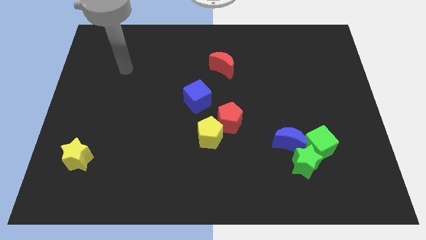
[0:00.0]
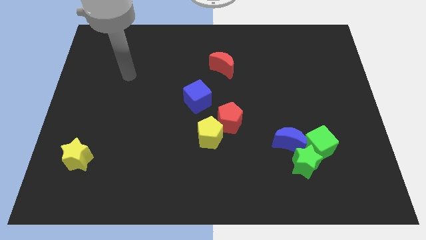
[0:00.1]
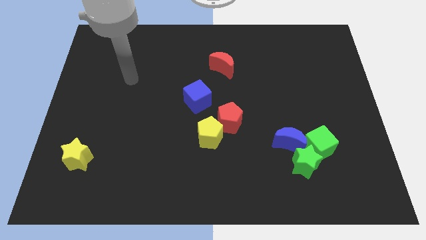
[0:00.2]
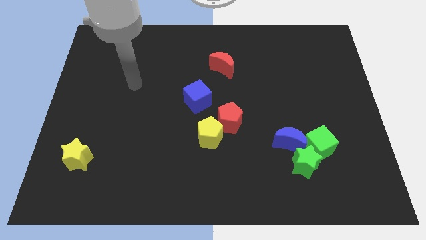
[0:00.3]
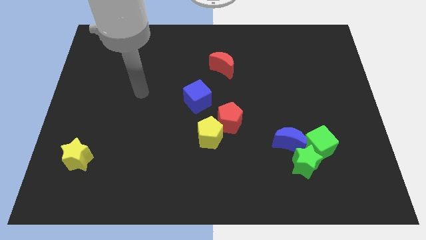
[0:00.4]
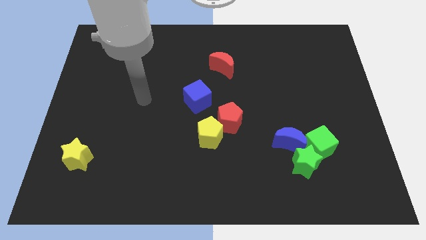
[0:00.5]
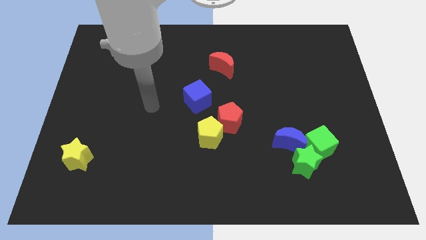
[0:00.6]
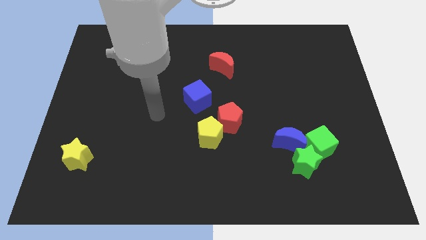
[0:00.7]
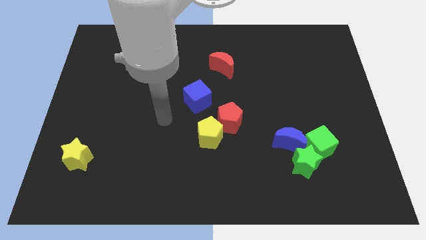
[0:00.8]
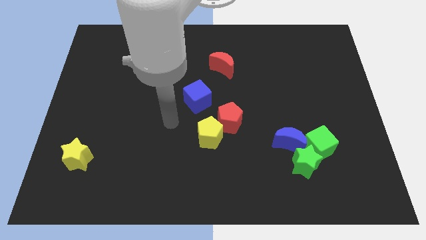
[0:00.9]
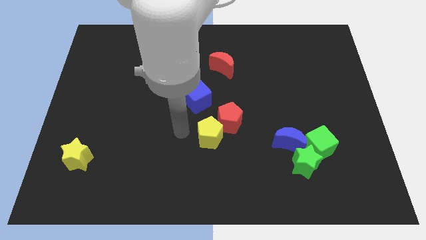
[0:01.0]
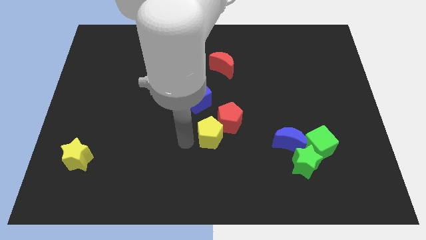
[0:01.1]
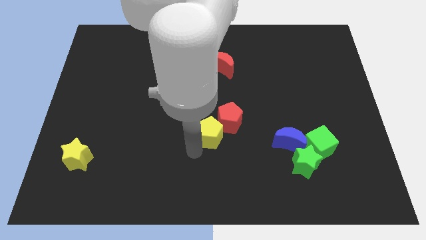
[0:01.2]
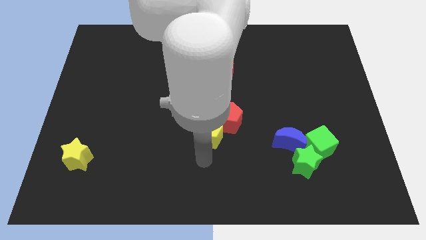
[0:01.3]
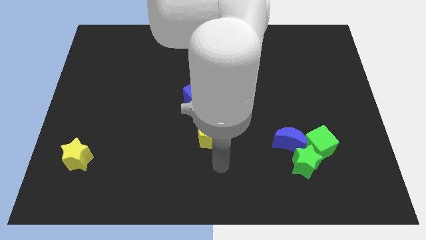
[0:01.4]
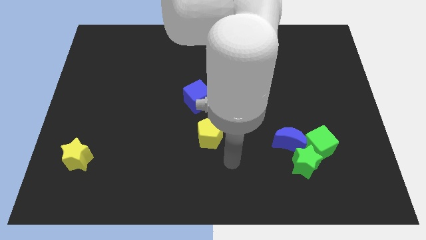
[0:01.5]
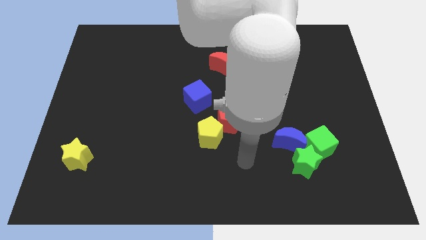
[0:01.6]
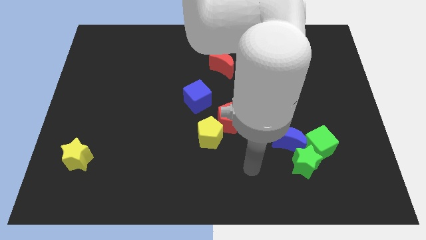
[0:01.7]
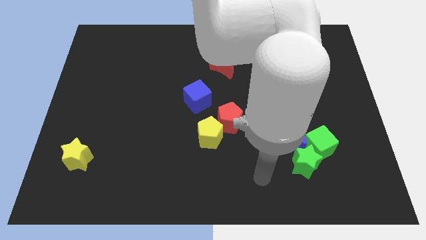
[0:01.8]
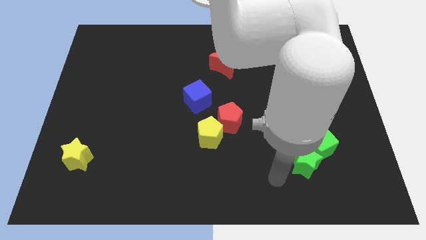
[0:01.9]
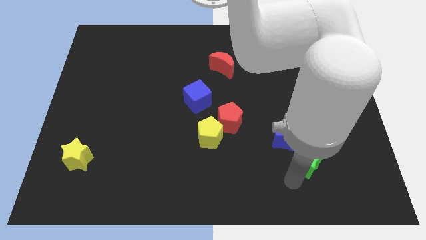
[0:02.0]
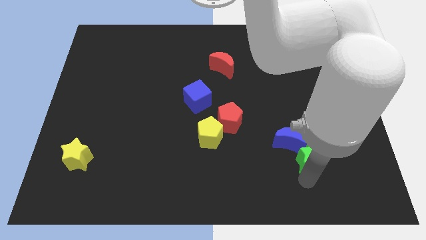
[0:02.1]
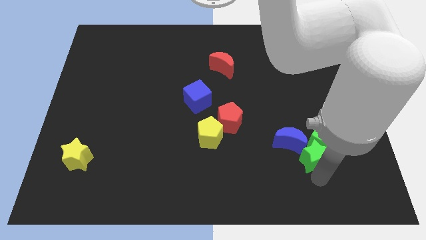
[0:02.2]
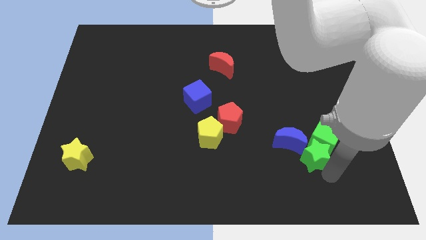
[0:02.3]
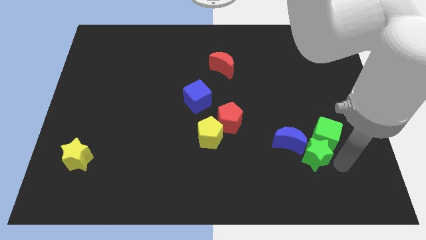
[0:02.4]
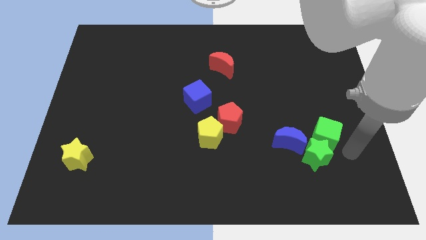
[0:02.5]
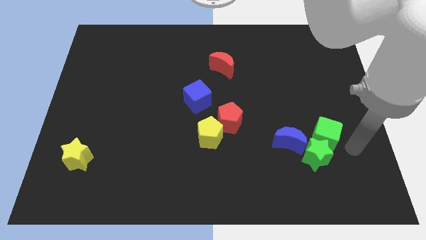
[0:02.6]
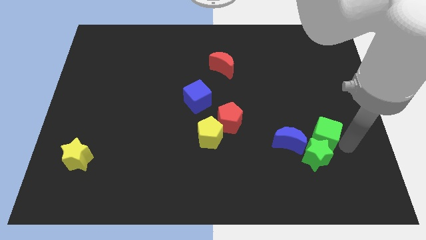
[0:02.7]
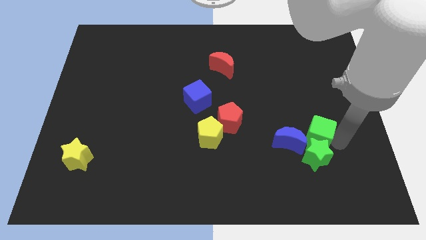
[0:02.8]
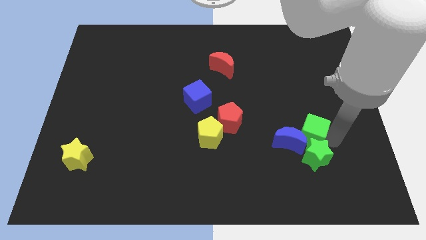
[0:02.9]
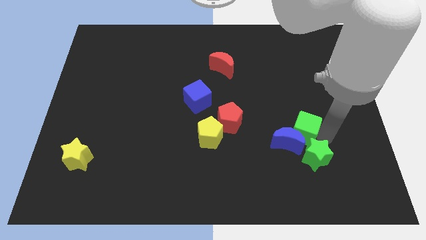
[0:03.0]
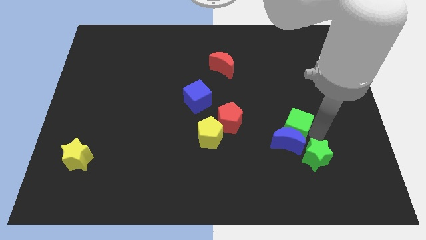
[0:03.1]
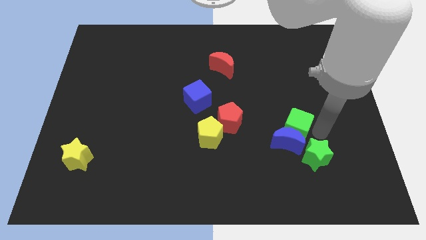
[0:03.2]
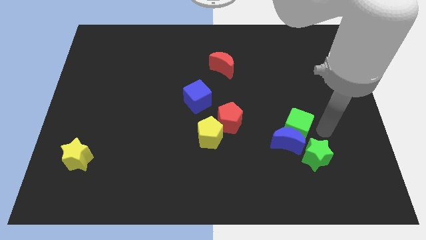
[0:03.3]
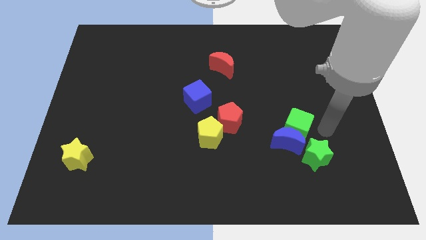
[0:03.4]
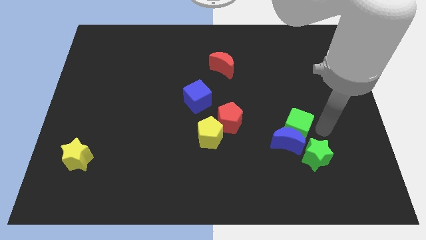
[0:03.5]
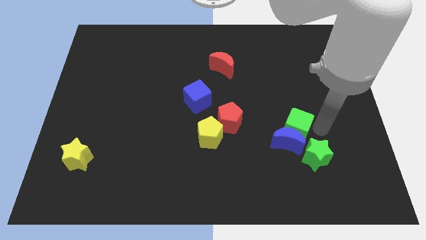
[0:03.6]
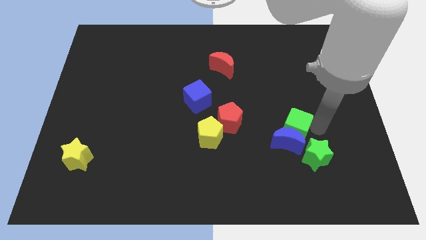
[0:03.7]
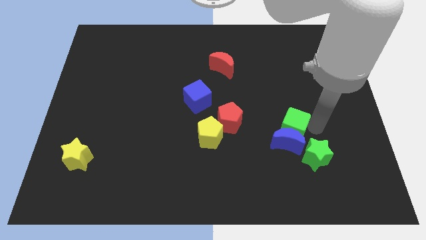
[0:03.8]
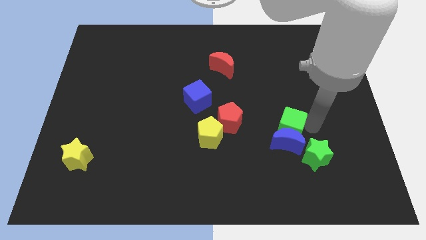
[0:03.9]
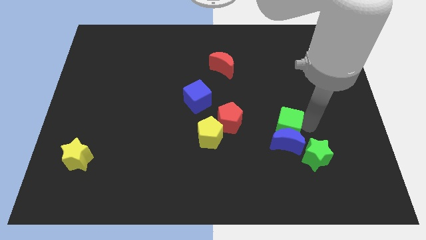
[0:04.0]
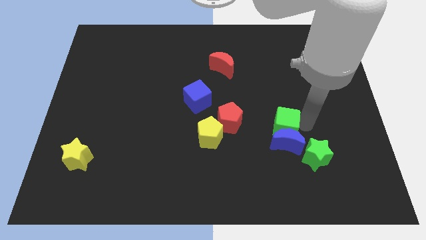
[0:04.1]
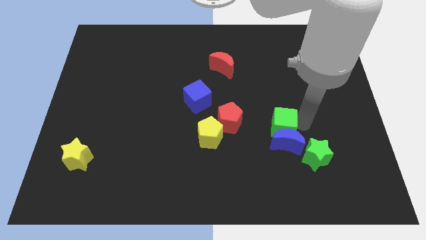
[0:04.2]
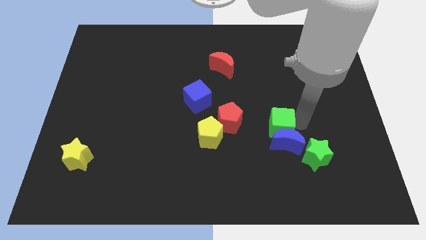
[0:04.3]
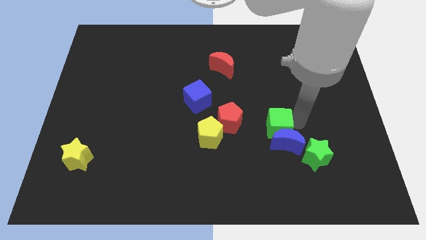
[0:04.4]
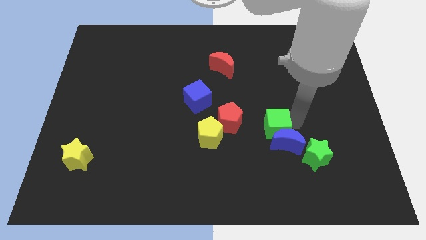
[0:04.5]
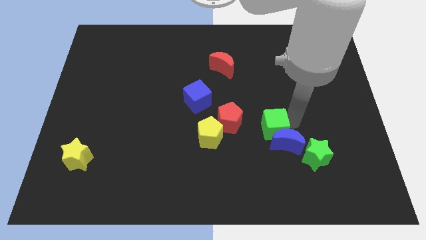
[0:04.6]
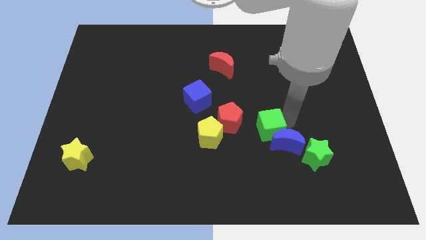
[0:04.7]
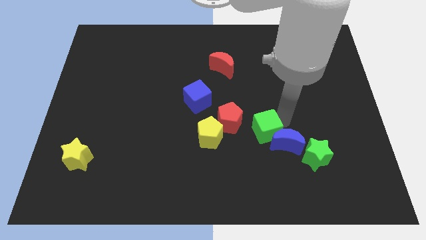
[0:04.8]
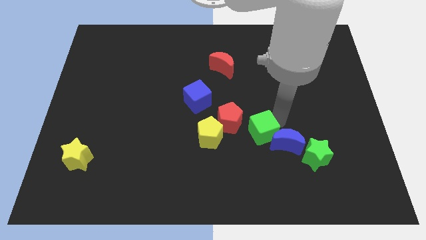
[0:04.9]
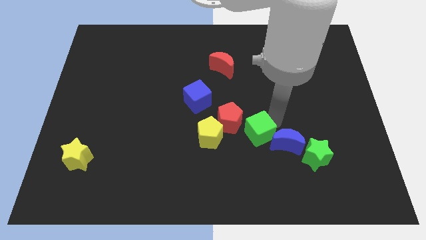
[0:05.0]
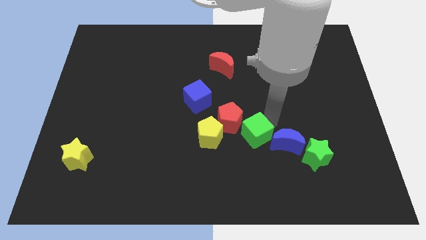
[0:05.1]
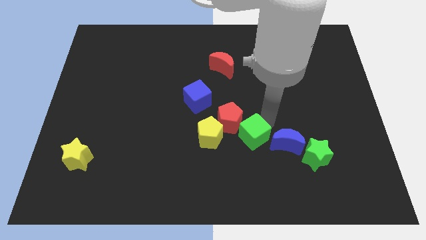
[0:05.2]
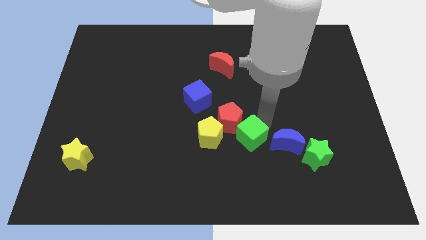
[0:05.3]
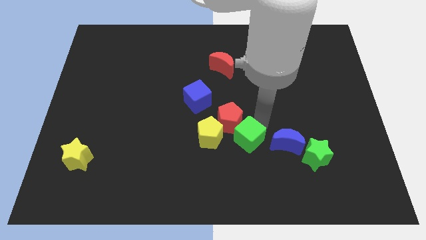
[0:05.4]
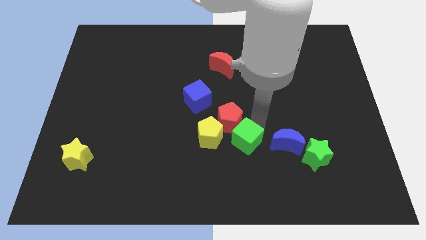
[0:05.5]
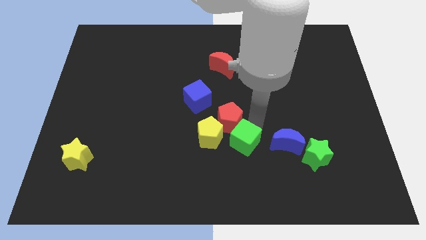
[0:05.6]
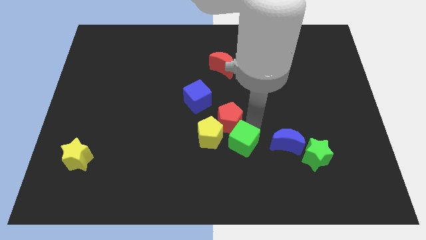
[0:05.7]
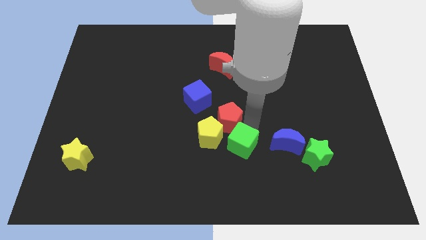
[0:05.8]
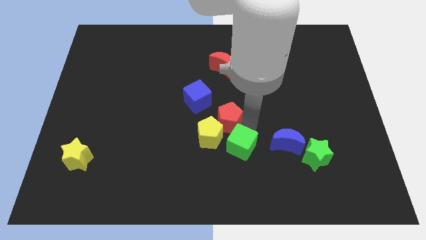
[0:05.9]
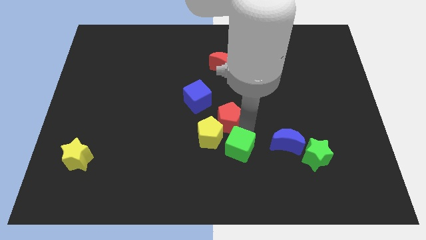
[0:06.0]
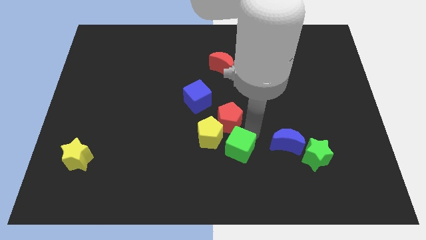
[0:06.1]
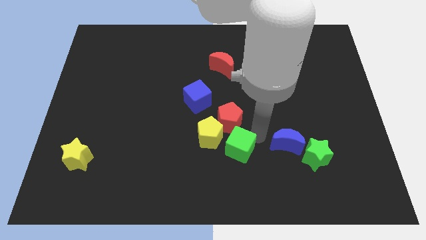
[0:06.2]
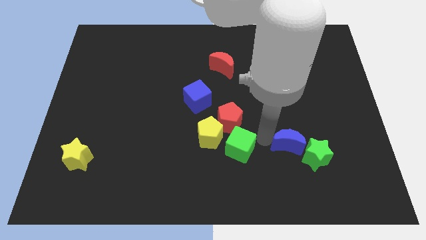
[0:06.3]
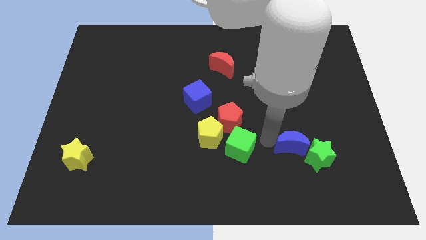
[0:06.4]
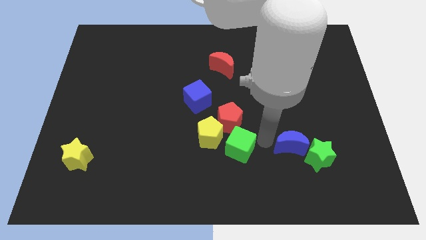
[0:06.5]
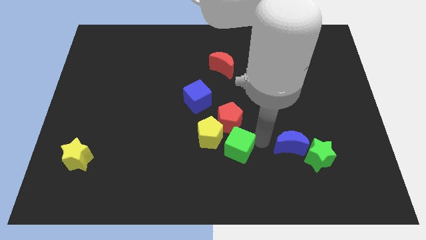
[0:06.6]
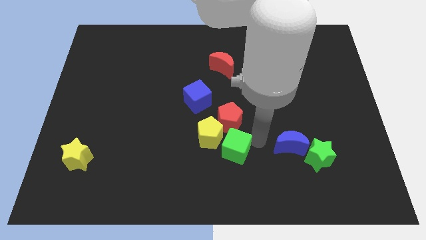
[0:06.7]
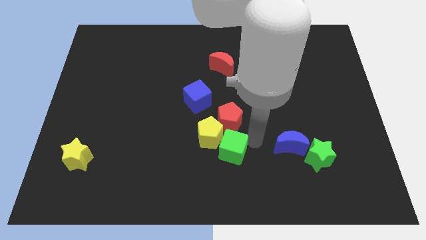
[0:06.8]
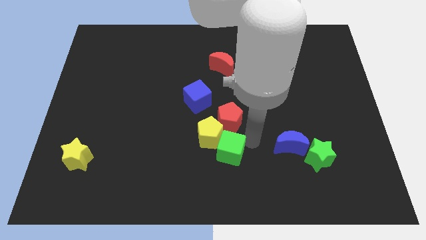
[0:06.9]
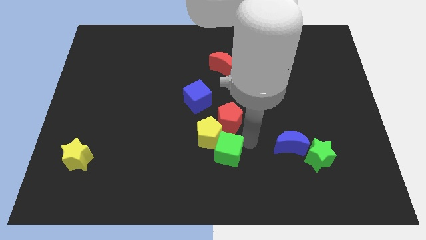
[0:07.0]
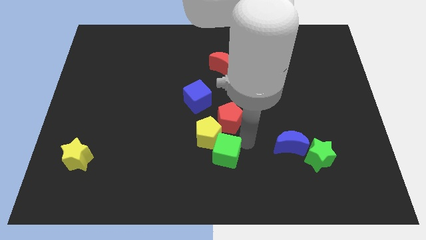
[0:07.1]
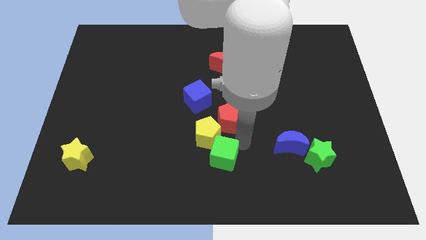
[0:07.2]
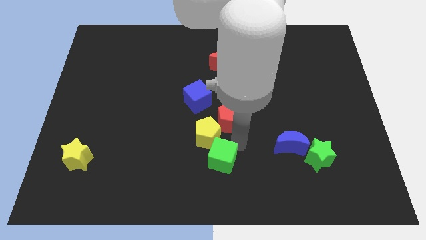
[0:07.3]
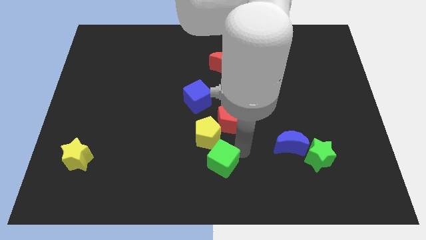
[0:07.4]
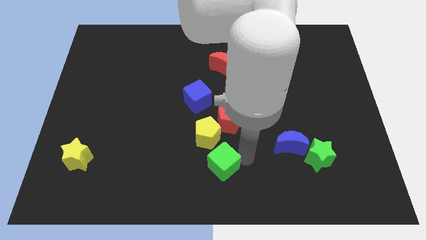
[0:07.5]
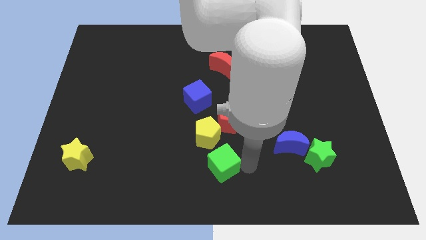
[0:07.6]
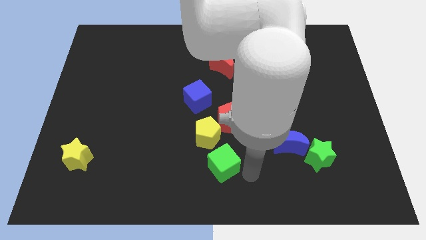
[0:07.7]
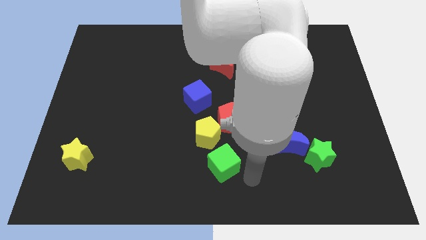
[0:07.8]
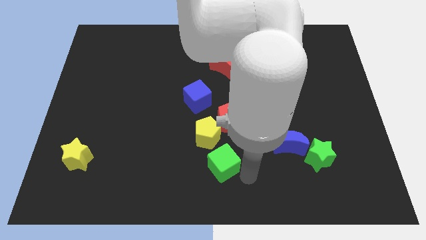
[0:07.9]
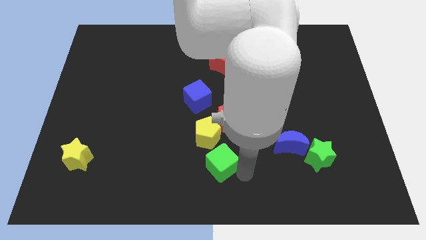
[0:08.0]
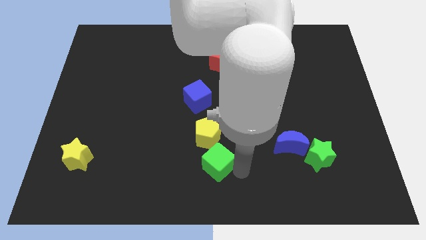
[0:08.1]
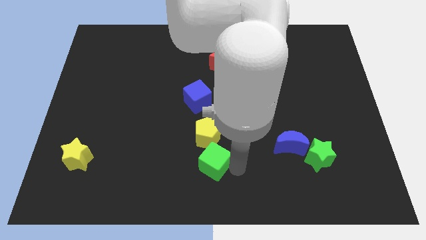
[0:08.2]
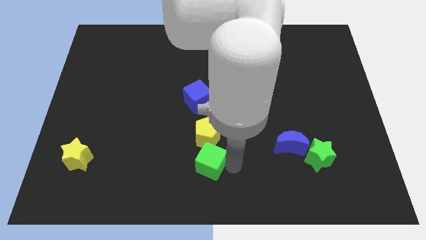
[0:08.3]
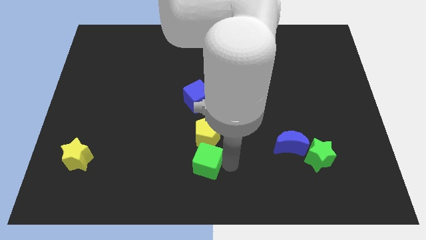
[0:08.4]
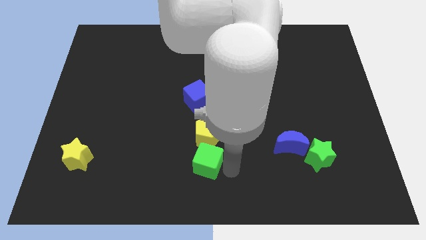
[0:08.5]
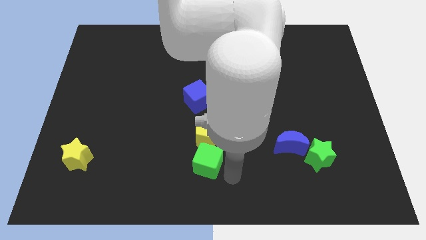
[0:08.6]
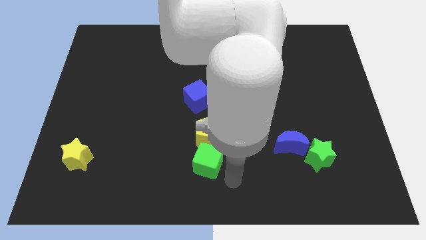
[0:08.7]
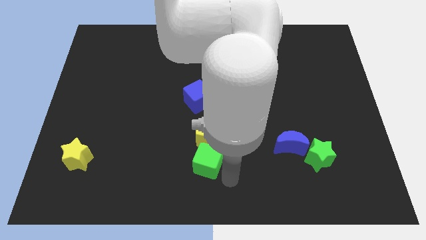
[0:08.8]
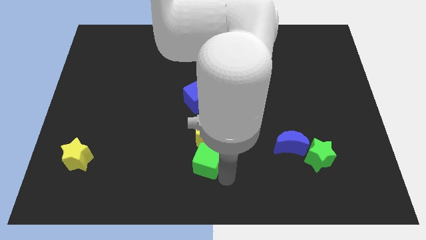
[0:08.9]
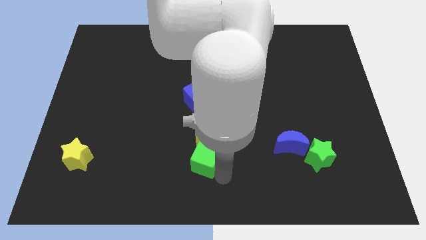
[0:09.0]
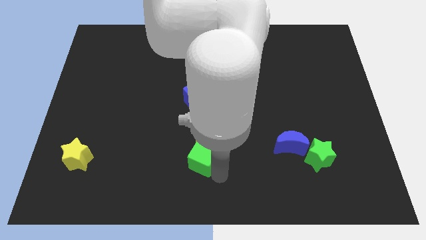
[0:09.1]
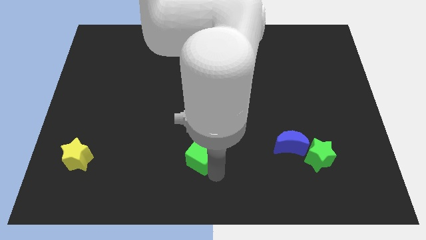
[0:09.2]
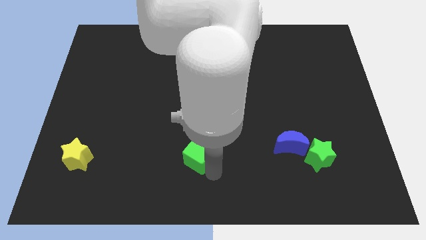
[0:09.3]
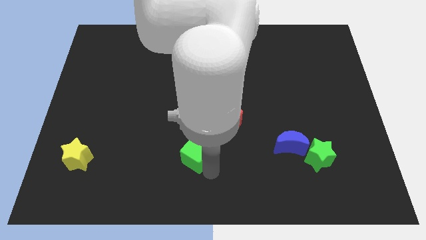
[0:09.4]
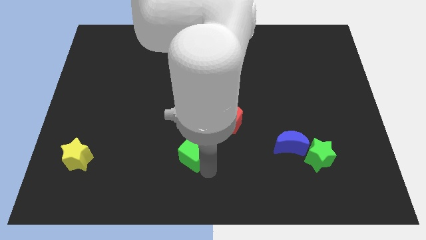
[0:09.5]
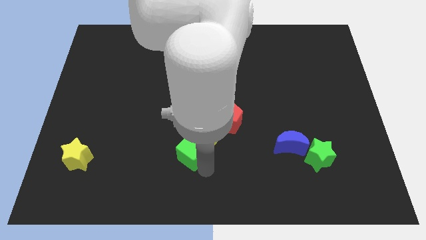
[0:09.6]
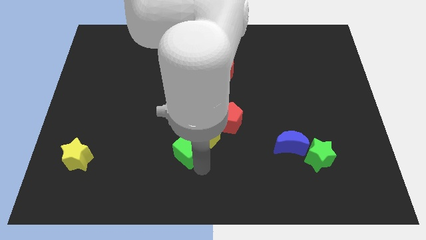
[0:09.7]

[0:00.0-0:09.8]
move the green cube just left of the yellow pentagon
